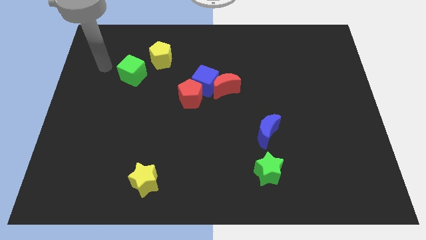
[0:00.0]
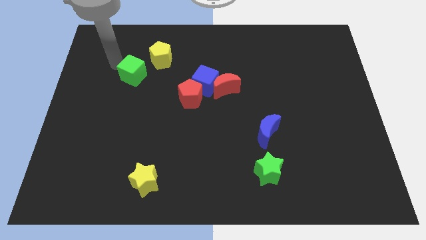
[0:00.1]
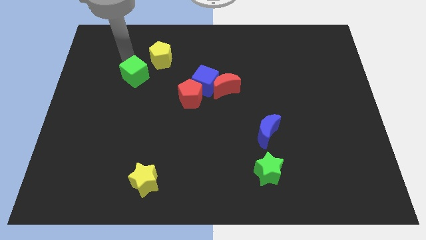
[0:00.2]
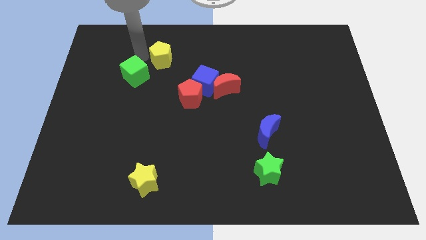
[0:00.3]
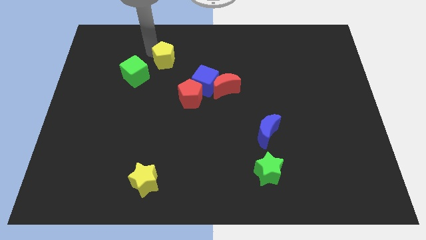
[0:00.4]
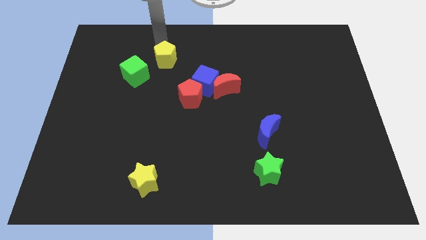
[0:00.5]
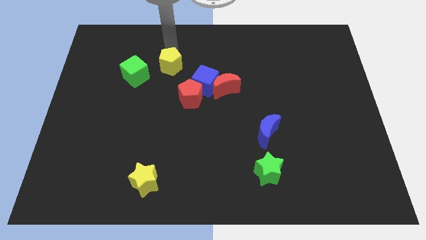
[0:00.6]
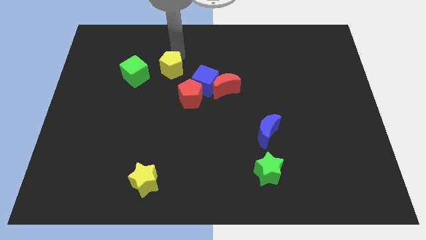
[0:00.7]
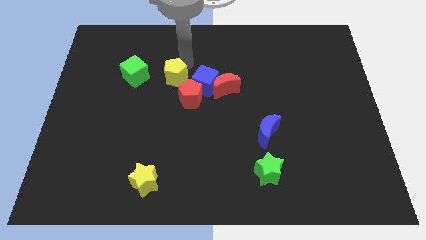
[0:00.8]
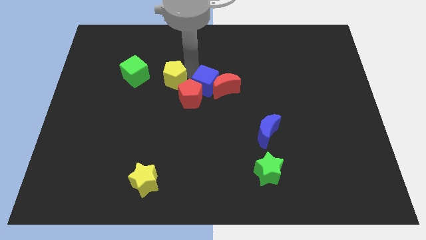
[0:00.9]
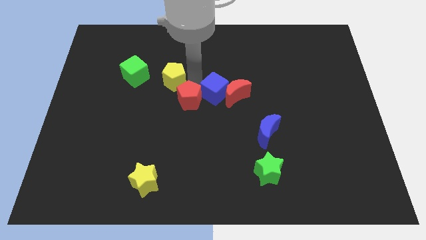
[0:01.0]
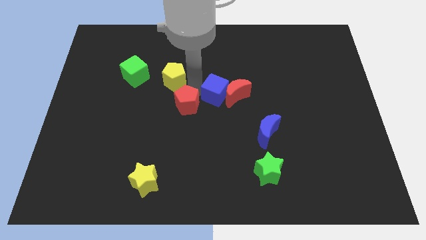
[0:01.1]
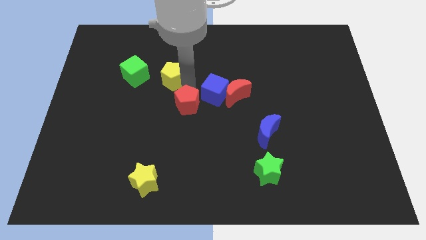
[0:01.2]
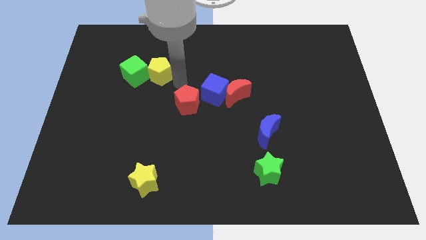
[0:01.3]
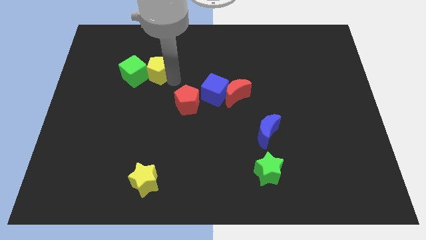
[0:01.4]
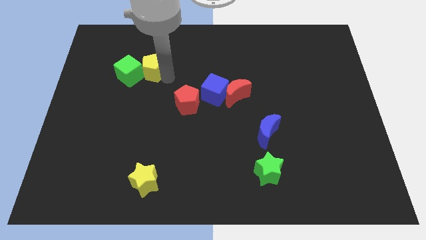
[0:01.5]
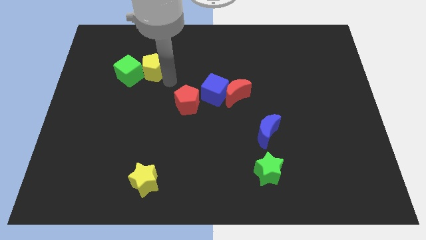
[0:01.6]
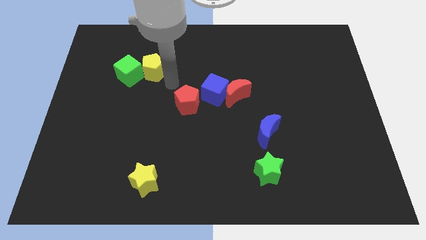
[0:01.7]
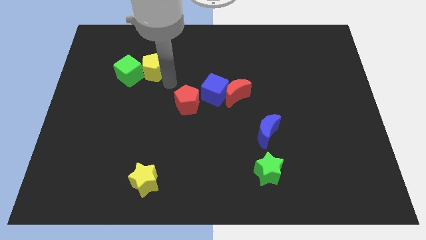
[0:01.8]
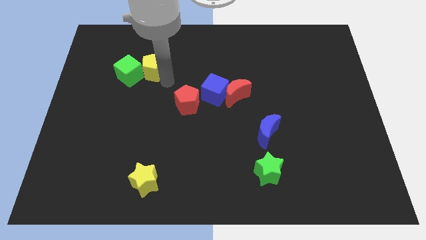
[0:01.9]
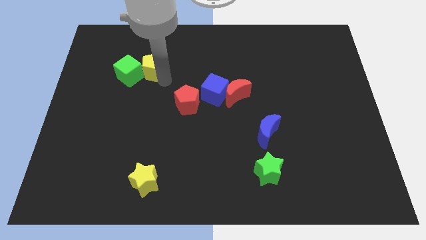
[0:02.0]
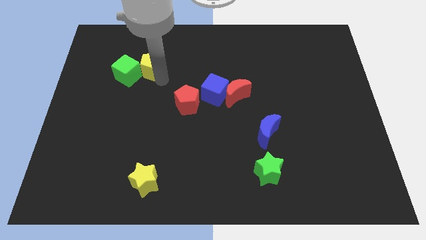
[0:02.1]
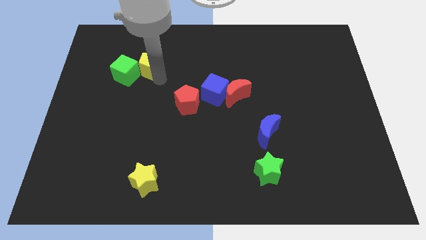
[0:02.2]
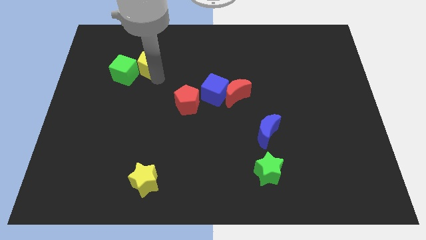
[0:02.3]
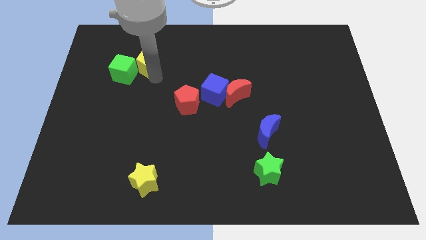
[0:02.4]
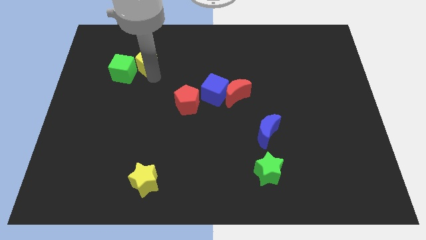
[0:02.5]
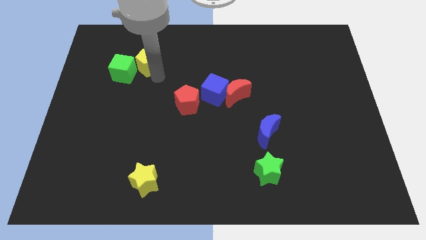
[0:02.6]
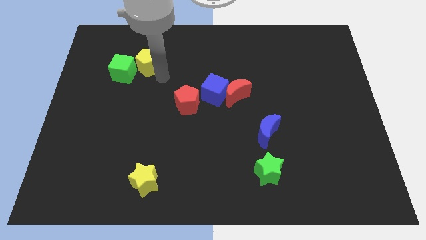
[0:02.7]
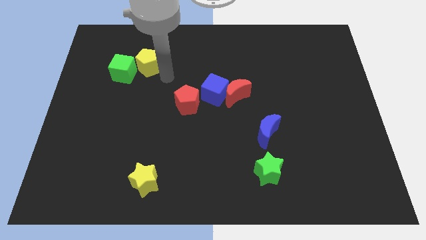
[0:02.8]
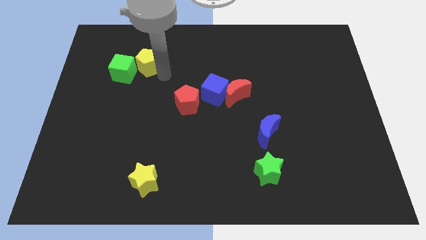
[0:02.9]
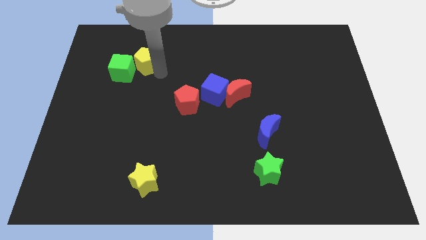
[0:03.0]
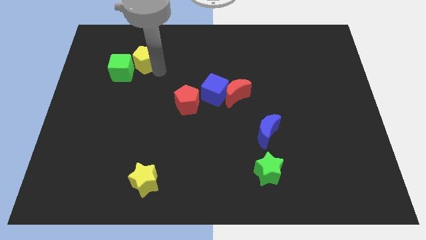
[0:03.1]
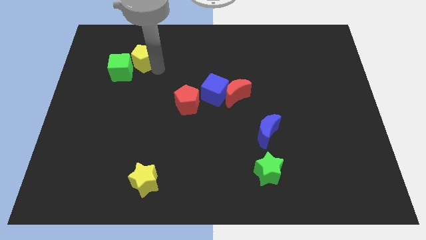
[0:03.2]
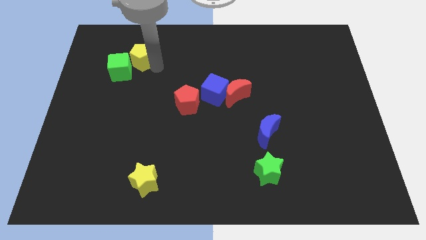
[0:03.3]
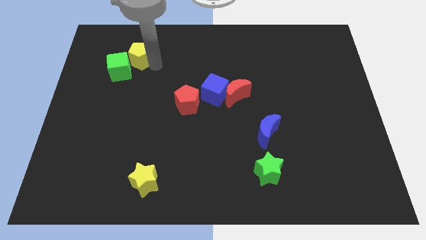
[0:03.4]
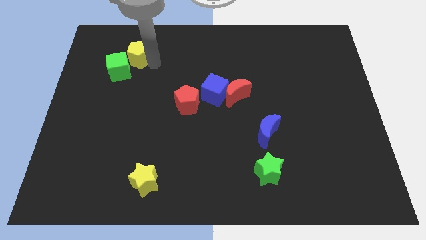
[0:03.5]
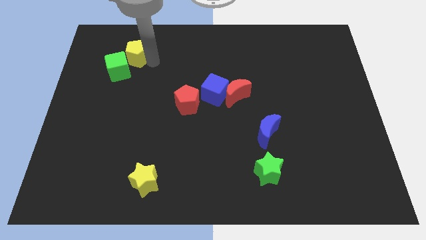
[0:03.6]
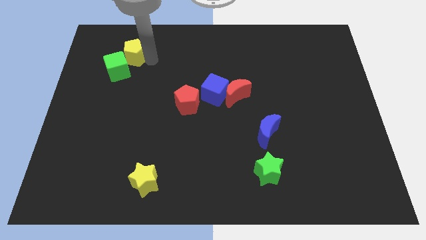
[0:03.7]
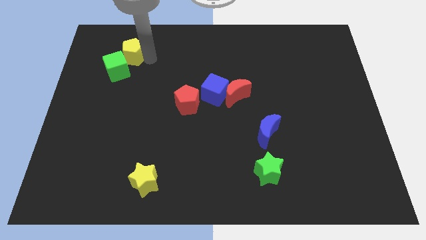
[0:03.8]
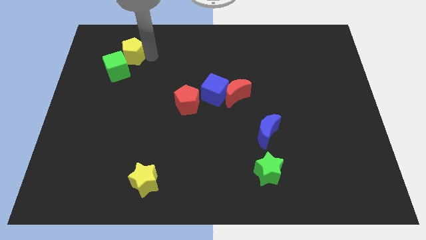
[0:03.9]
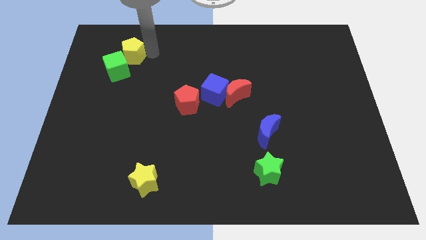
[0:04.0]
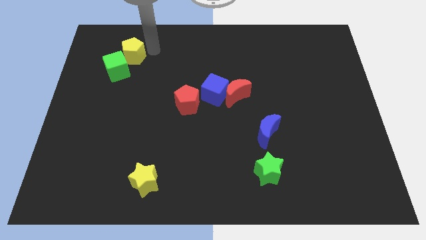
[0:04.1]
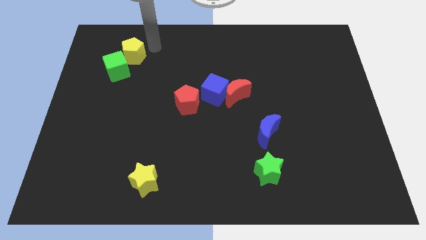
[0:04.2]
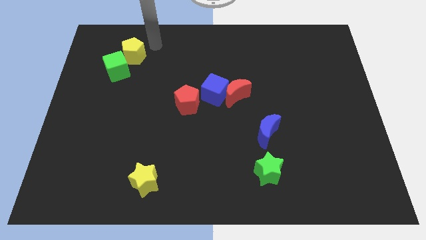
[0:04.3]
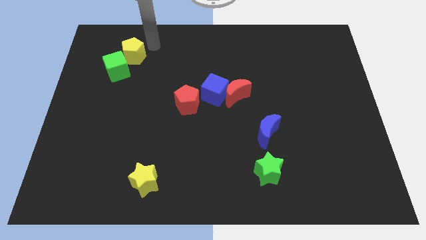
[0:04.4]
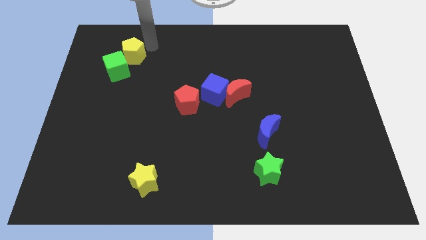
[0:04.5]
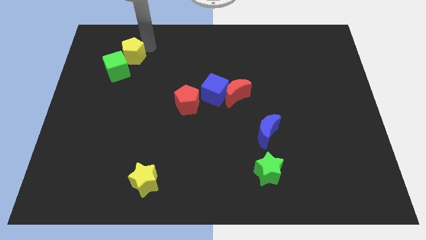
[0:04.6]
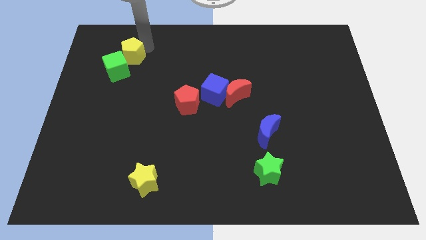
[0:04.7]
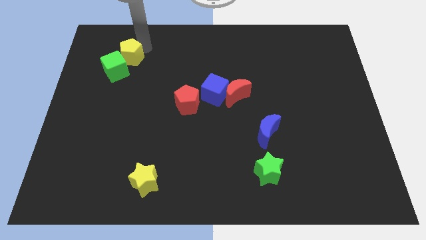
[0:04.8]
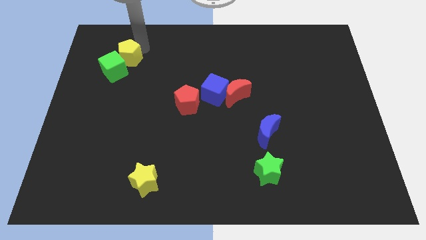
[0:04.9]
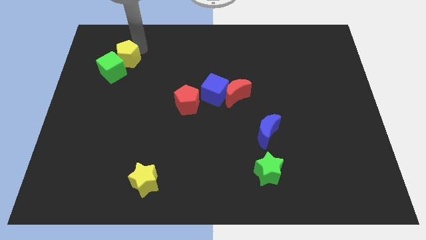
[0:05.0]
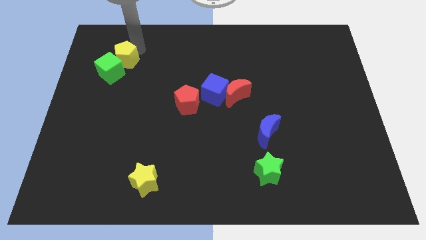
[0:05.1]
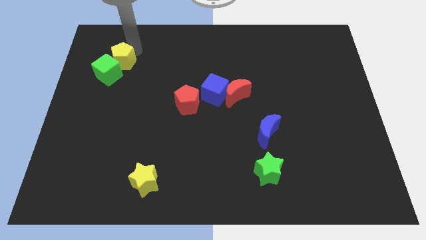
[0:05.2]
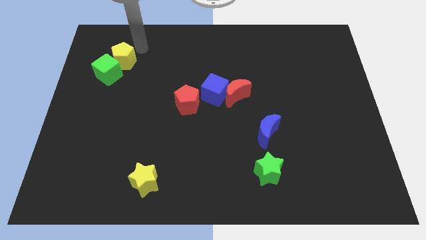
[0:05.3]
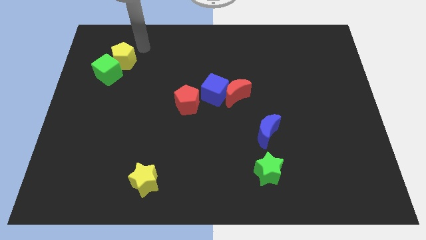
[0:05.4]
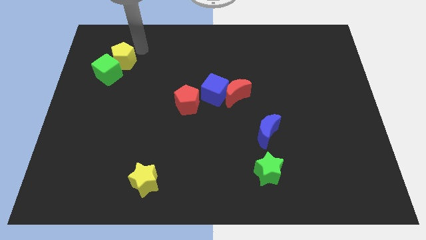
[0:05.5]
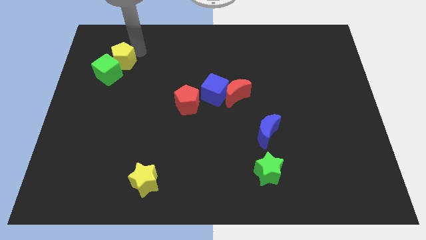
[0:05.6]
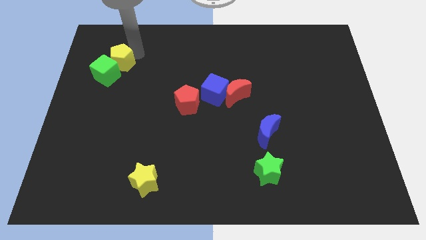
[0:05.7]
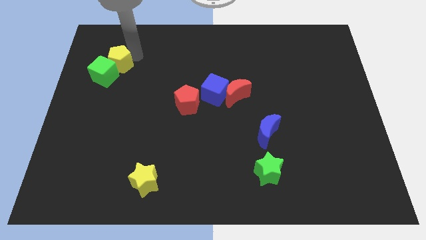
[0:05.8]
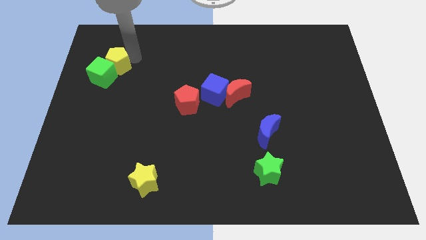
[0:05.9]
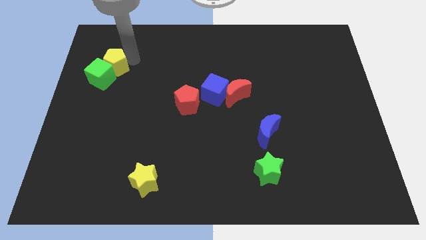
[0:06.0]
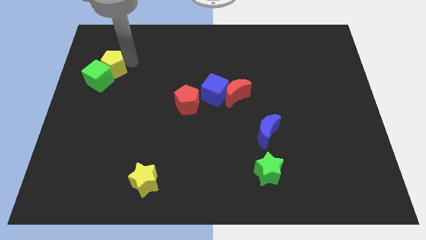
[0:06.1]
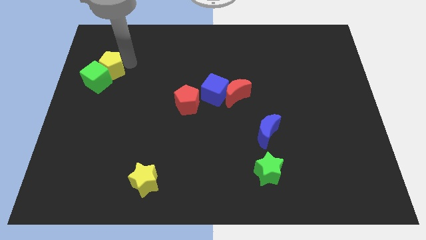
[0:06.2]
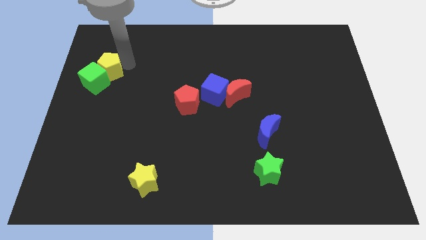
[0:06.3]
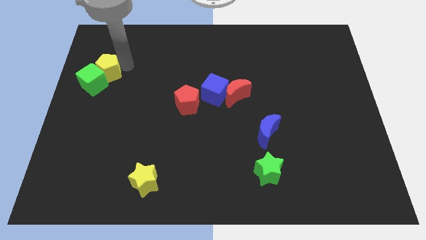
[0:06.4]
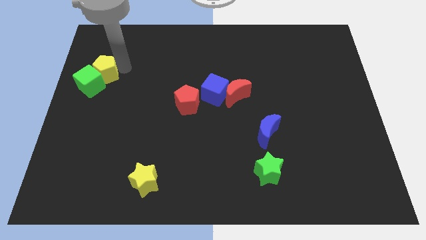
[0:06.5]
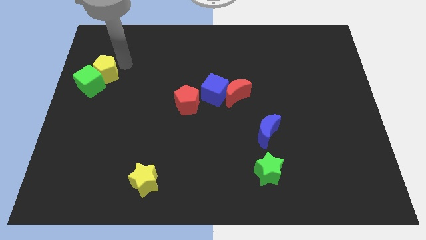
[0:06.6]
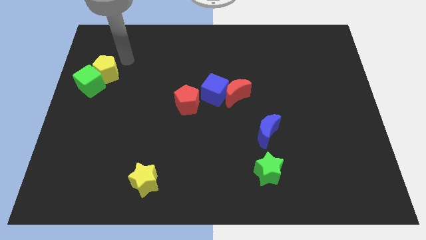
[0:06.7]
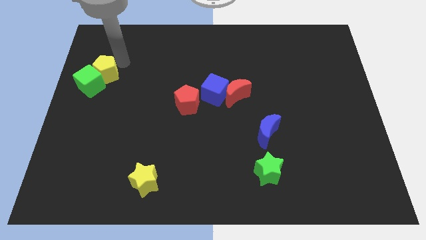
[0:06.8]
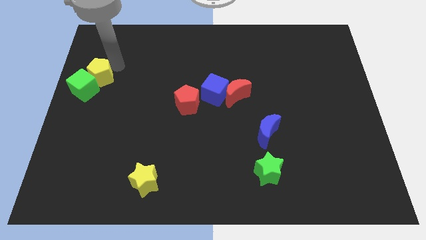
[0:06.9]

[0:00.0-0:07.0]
push the yellow pentagon to the left side
